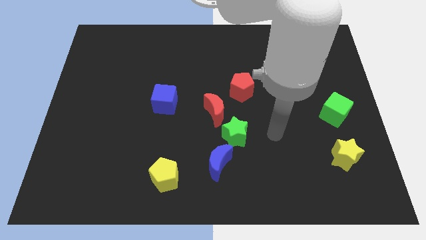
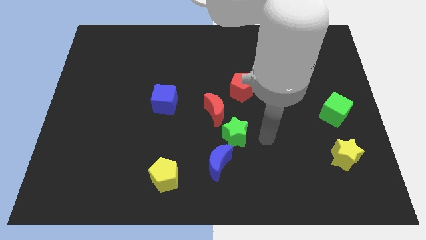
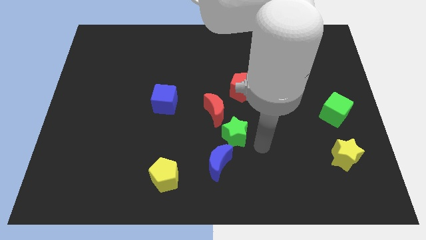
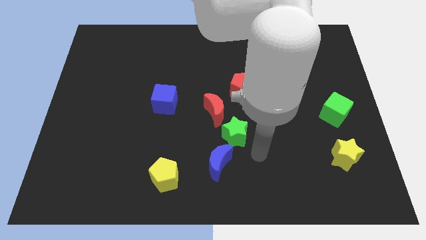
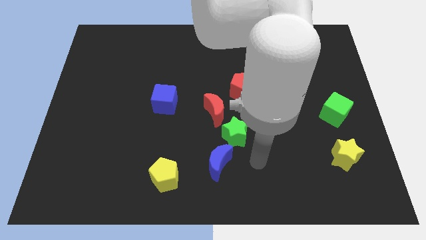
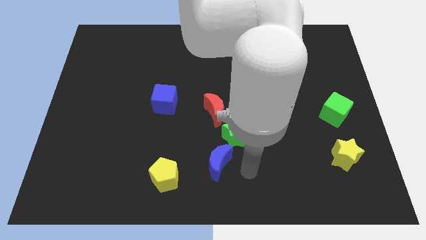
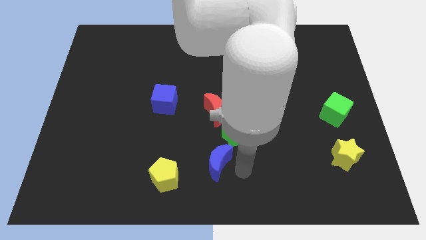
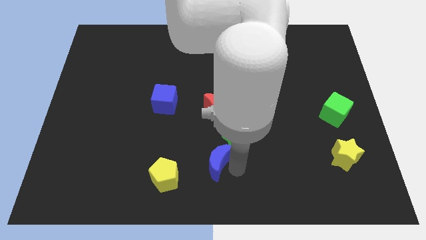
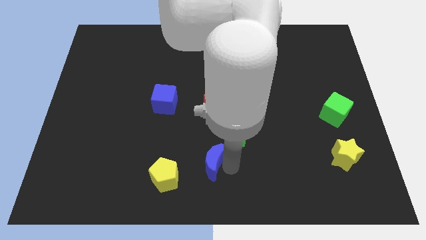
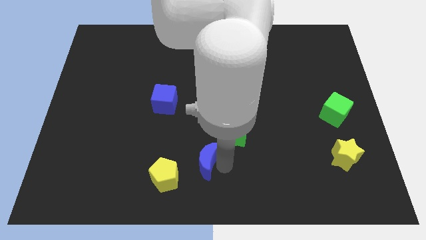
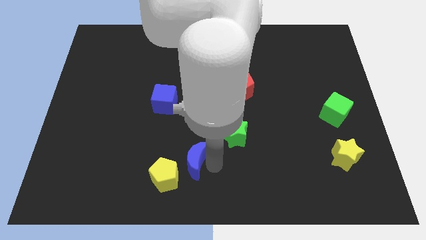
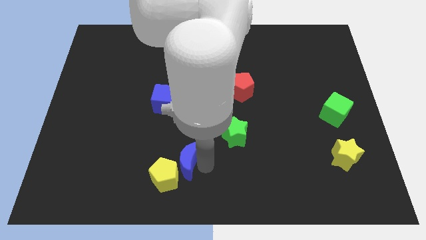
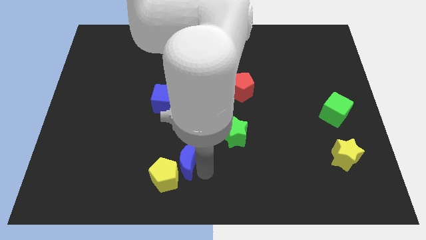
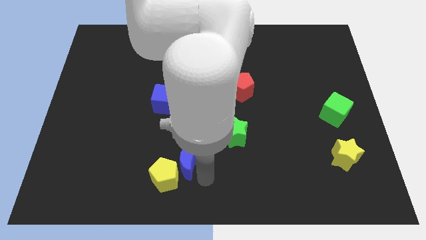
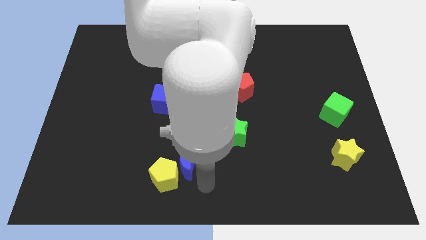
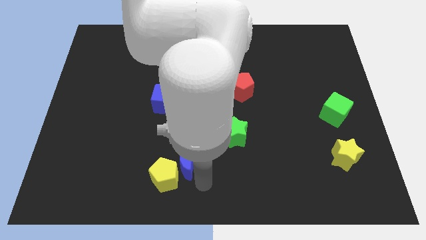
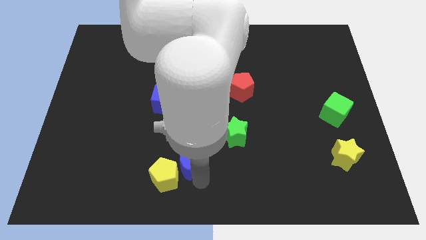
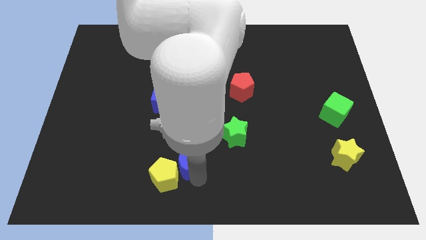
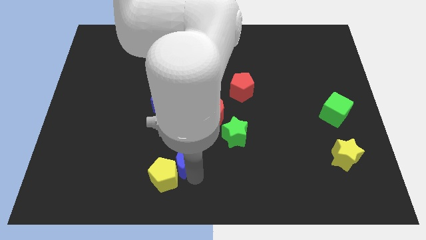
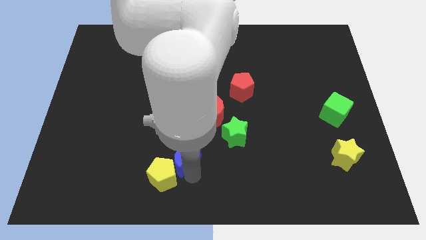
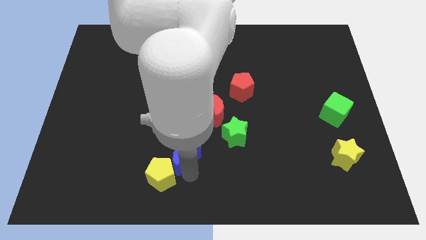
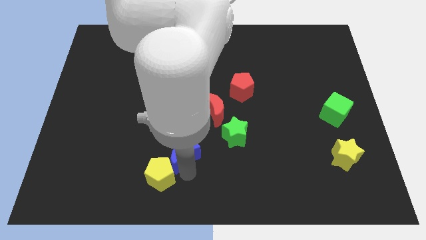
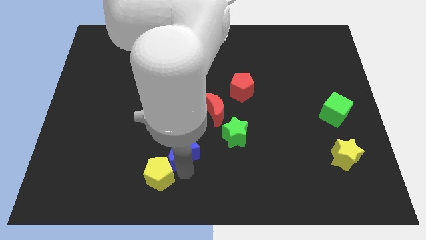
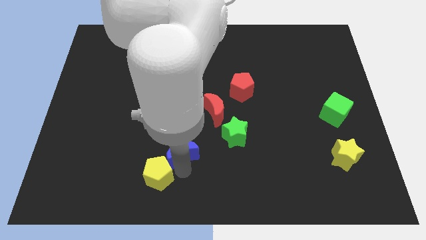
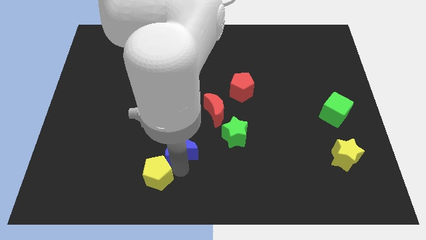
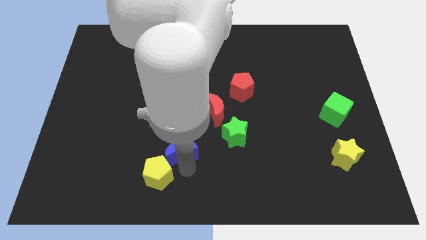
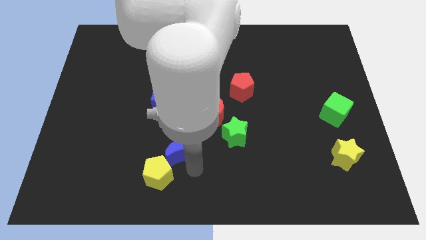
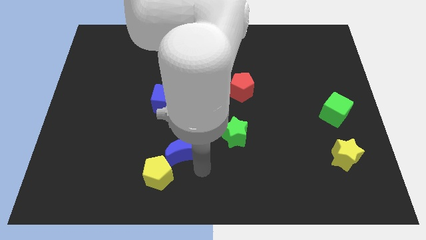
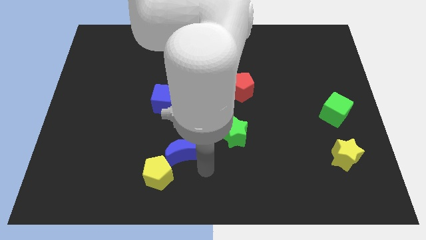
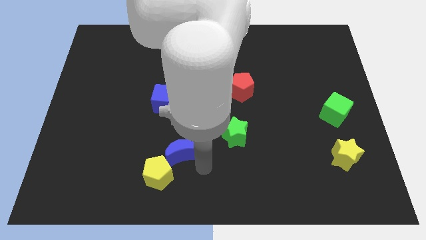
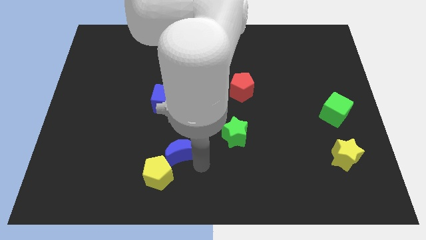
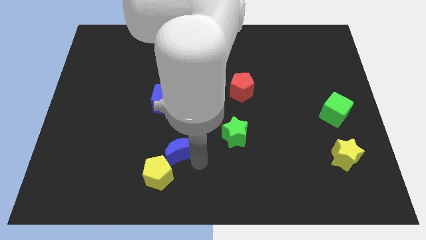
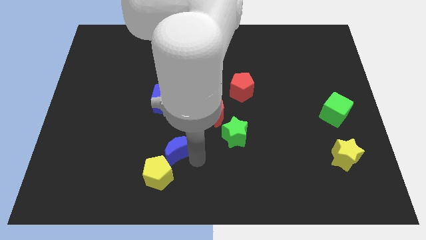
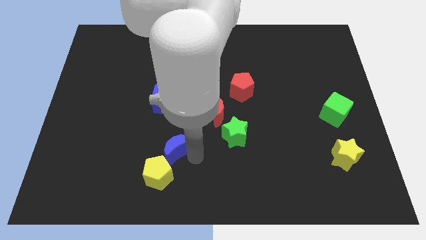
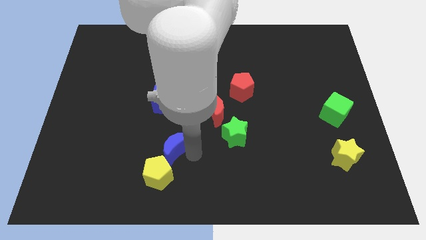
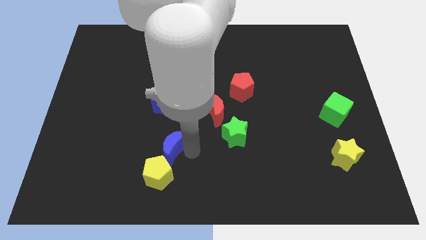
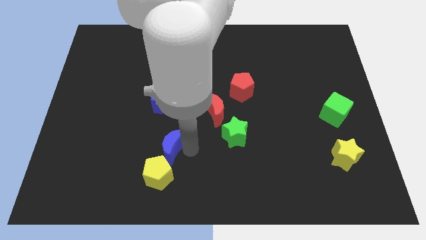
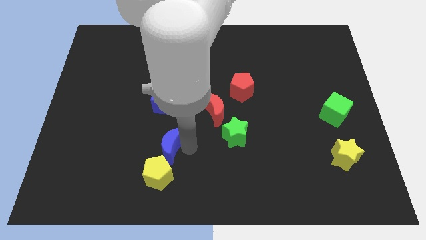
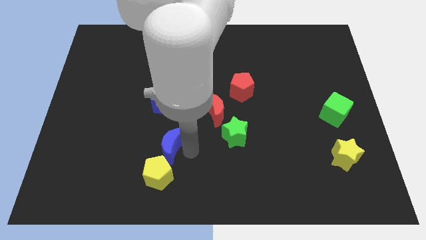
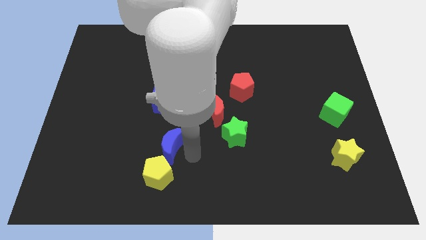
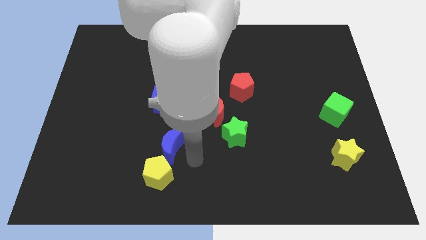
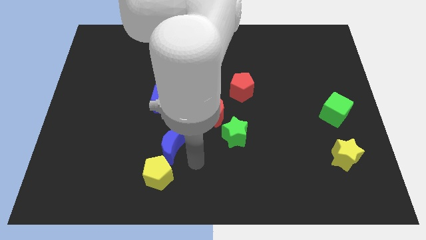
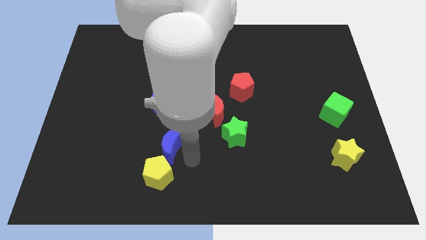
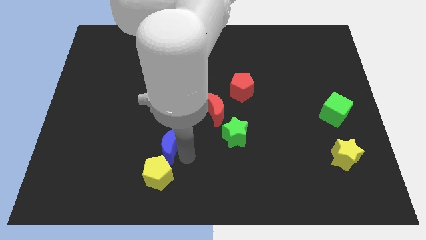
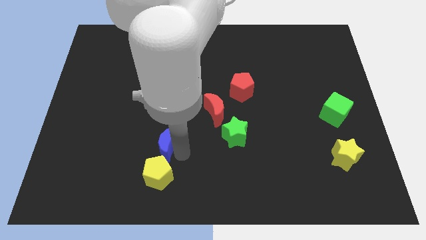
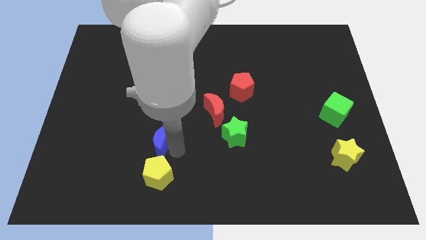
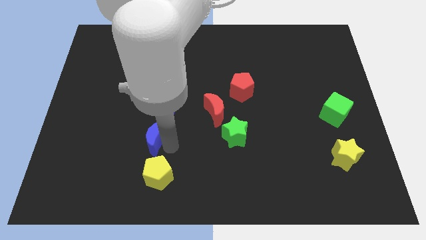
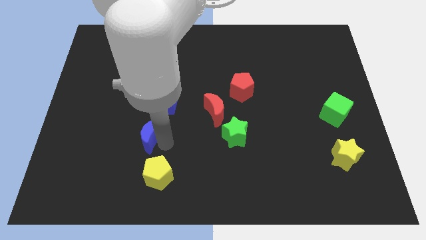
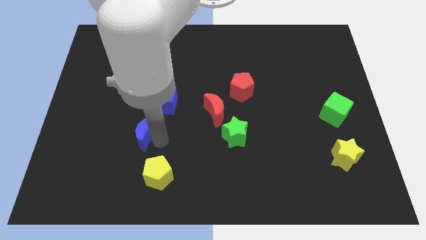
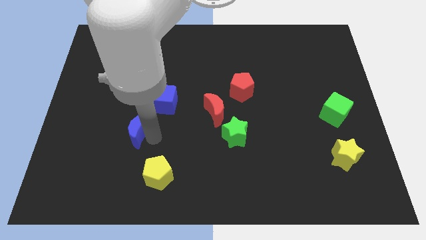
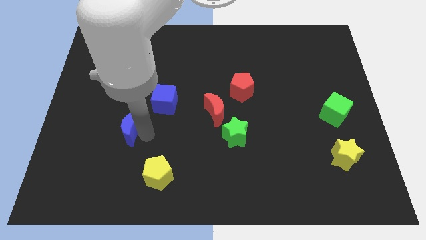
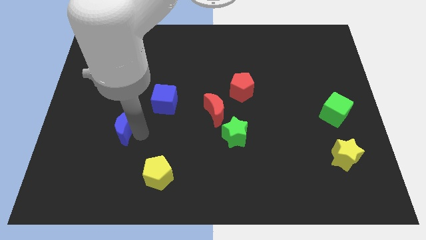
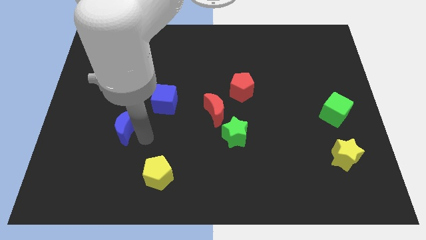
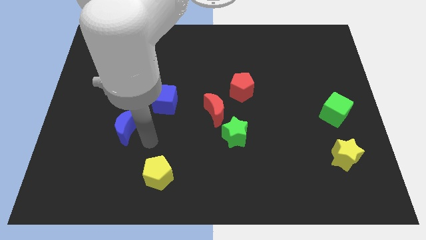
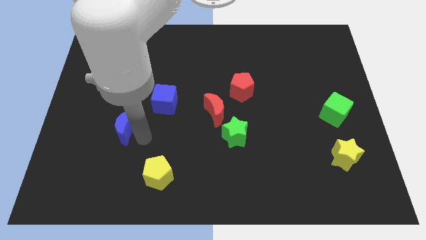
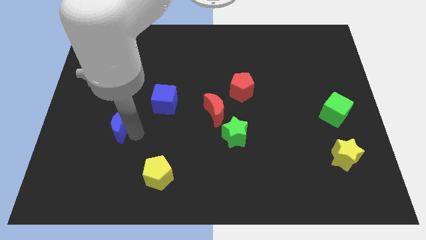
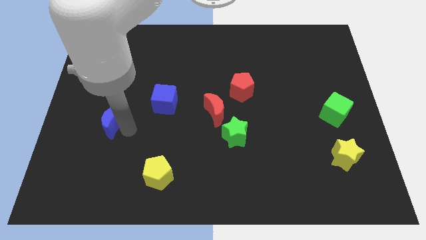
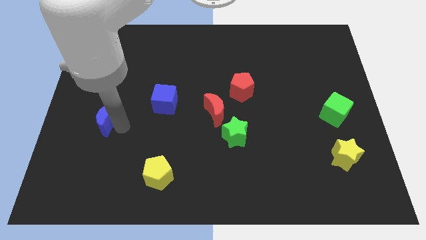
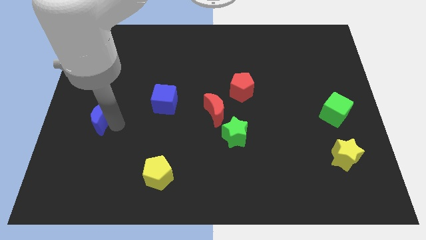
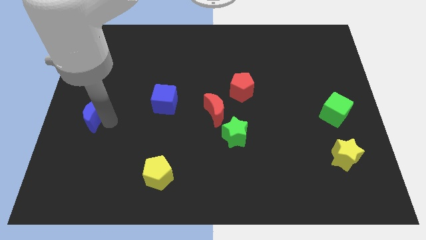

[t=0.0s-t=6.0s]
put the blue moon to the left side

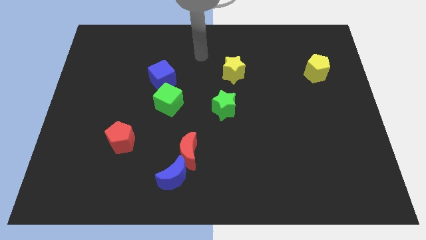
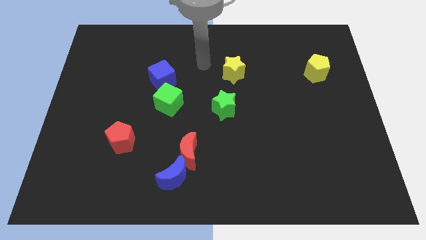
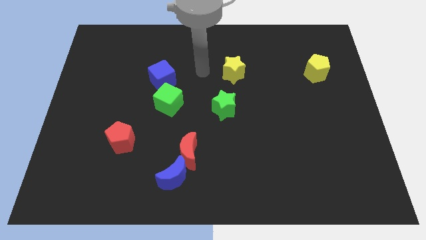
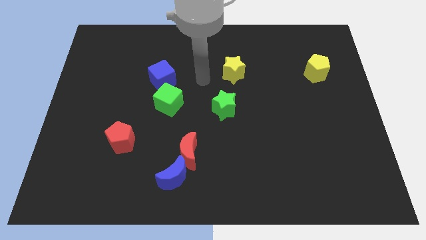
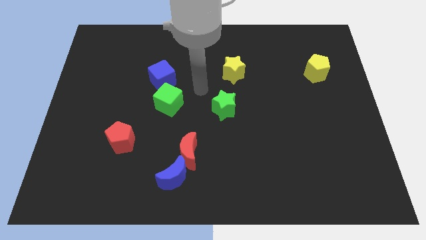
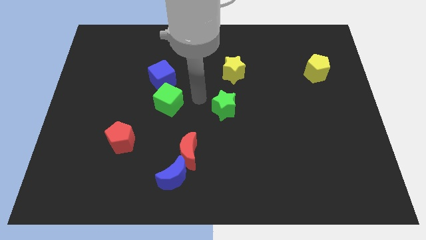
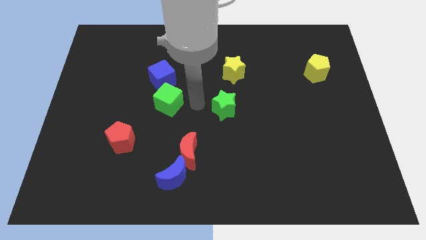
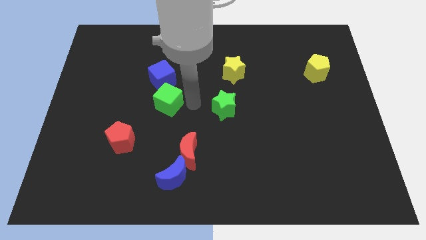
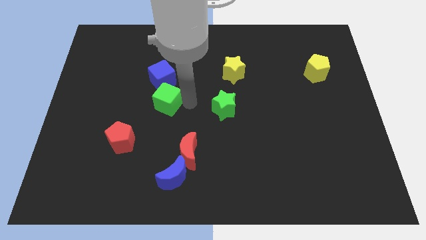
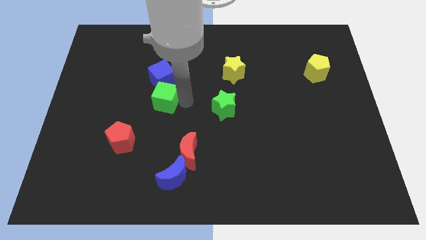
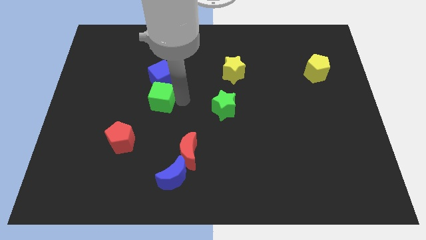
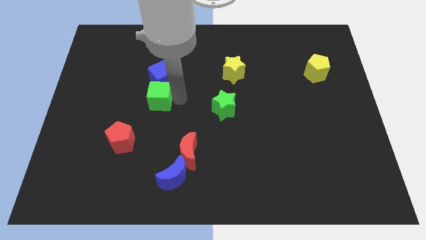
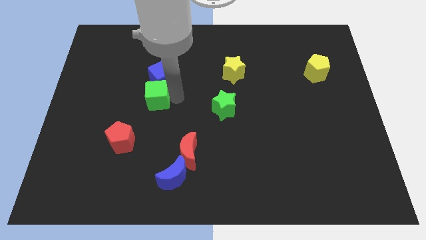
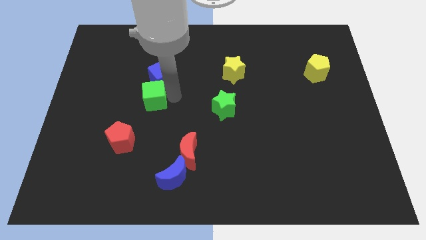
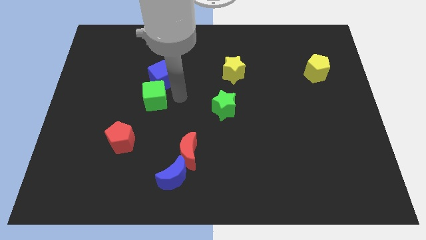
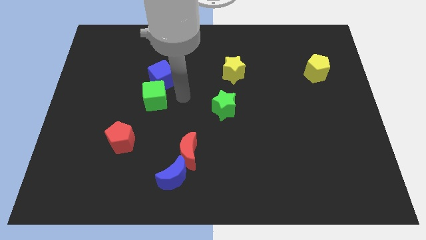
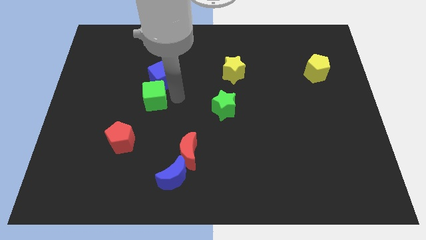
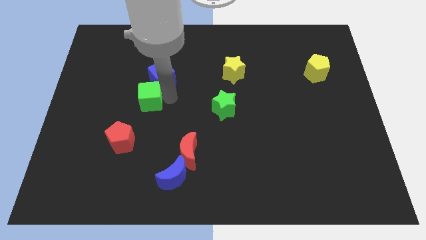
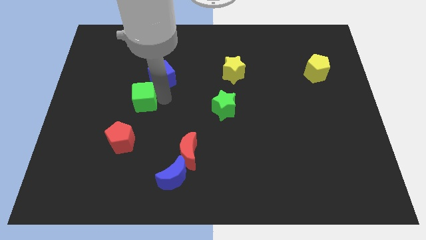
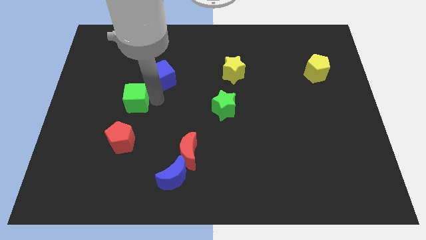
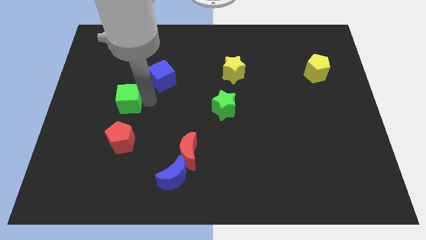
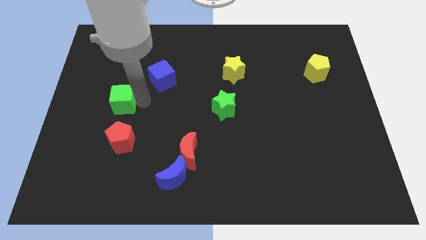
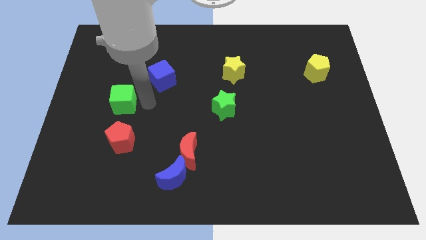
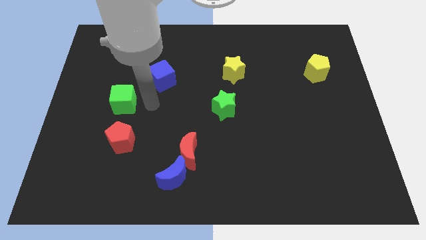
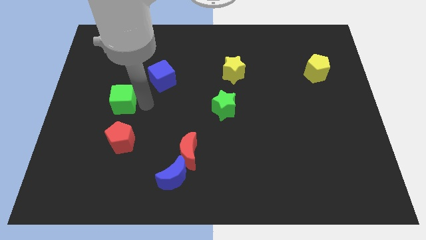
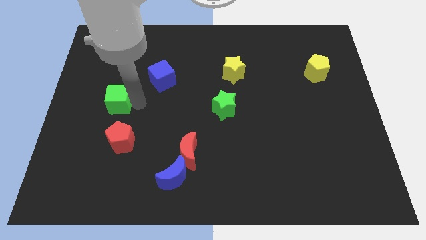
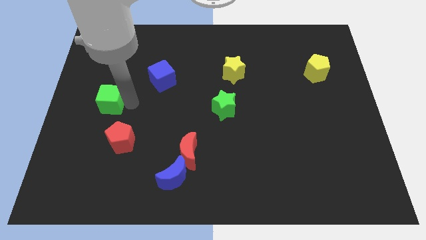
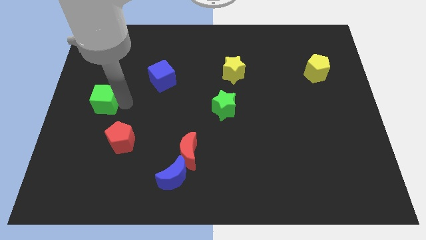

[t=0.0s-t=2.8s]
push the green cube to the center left
